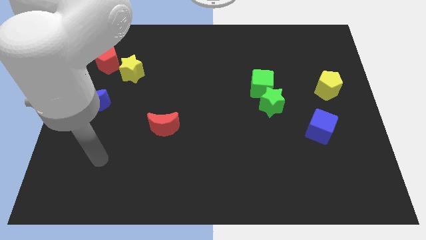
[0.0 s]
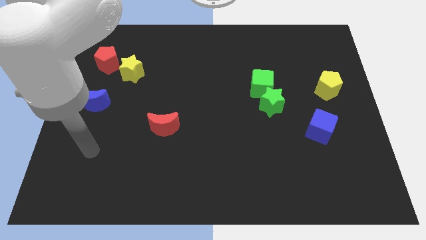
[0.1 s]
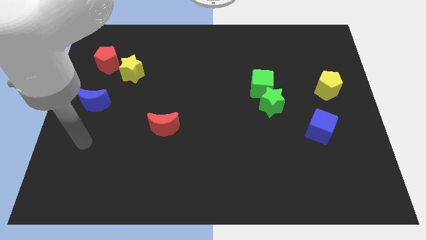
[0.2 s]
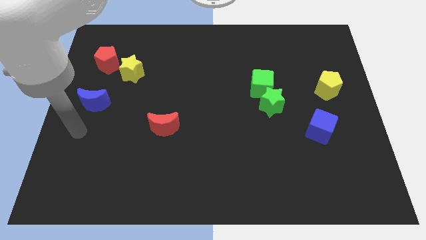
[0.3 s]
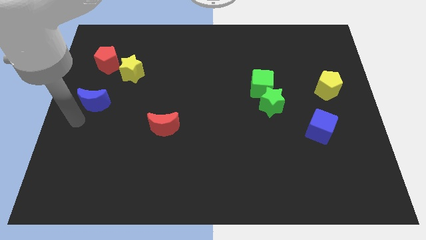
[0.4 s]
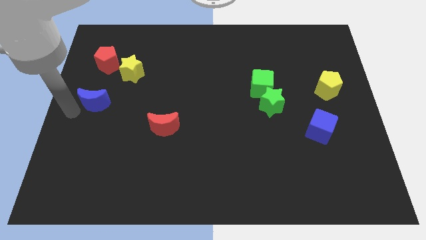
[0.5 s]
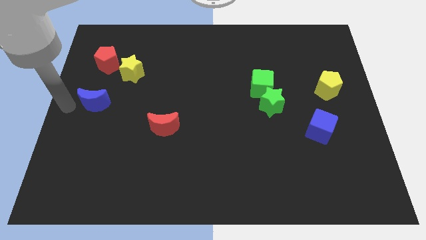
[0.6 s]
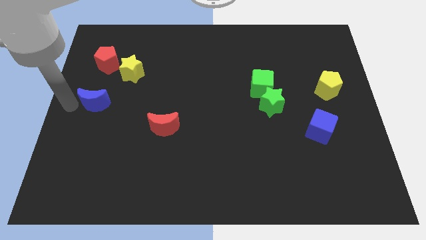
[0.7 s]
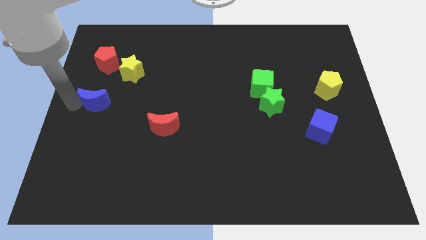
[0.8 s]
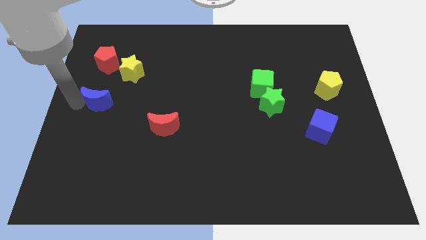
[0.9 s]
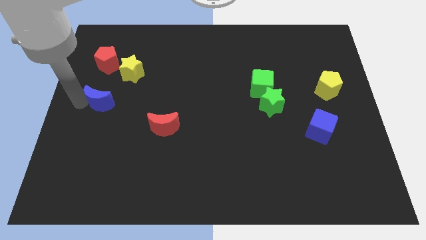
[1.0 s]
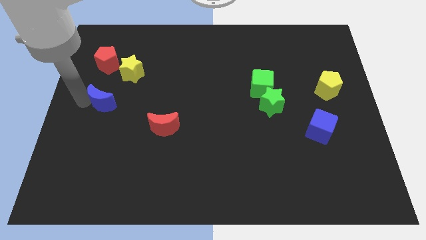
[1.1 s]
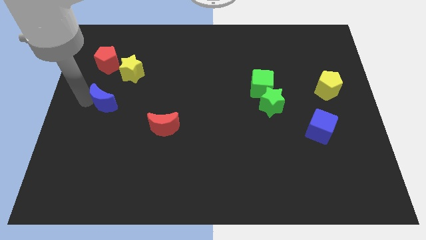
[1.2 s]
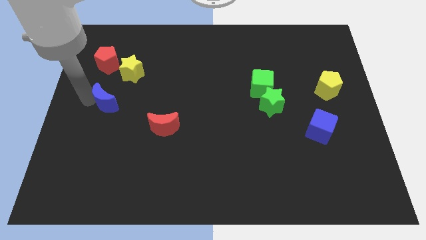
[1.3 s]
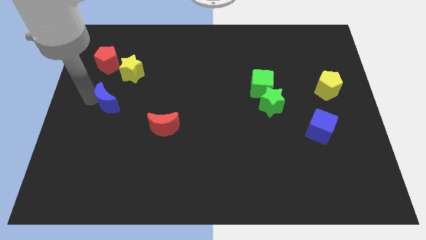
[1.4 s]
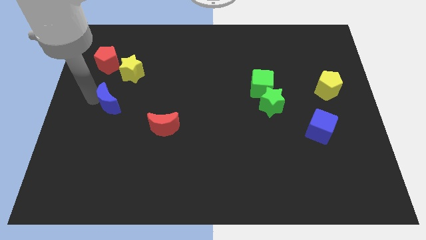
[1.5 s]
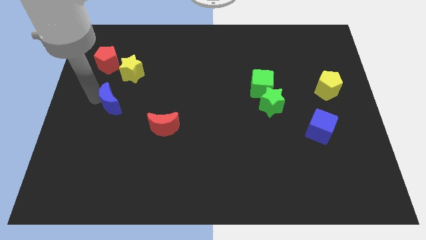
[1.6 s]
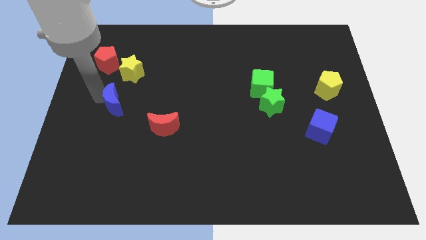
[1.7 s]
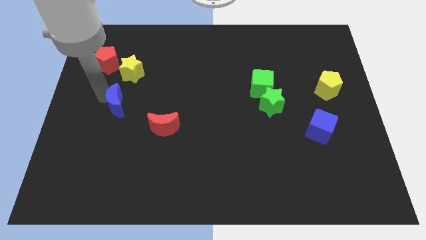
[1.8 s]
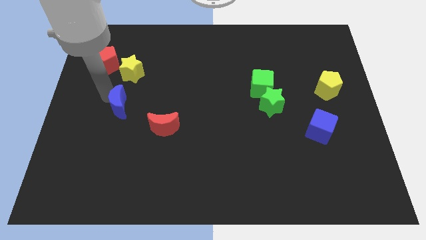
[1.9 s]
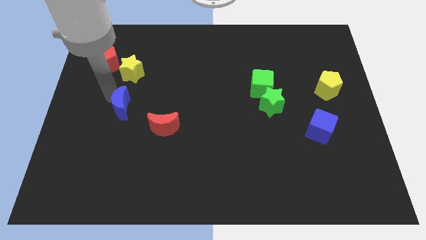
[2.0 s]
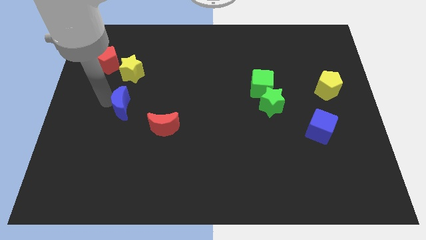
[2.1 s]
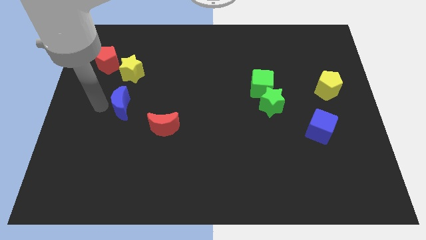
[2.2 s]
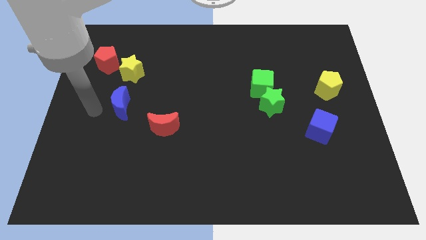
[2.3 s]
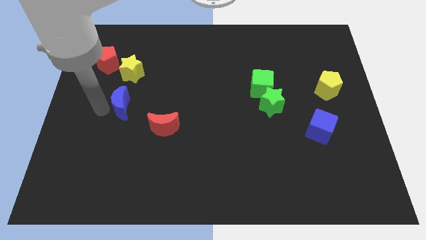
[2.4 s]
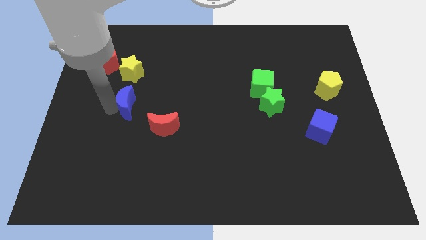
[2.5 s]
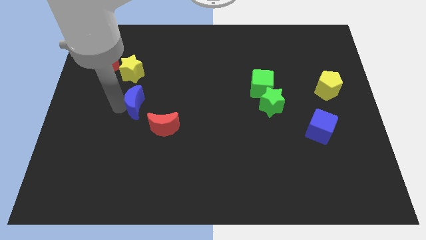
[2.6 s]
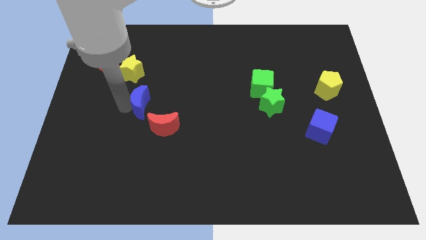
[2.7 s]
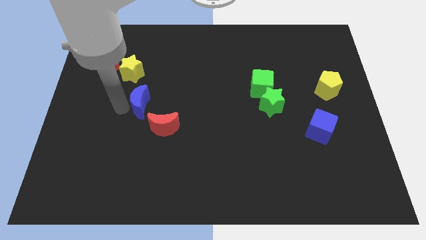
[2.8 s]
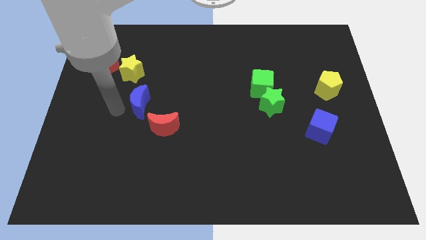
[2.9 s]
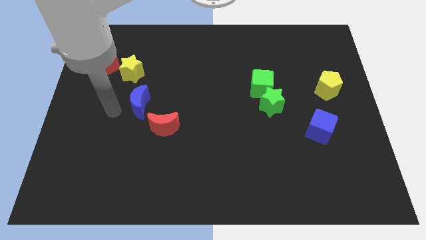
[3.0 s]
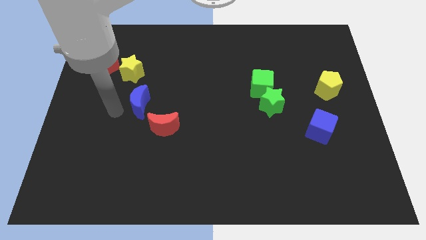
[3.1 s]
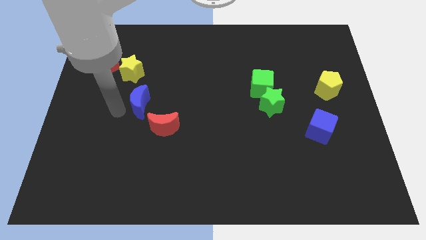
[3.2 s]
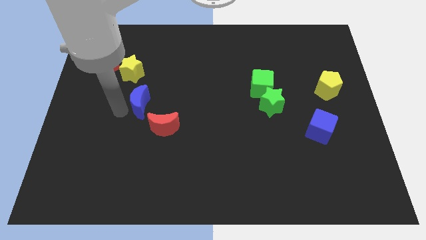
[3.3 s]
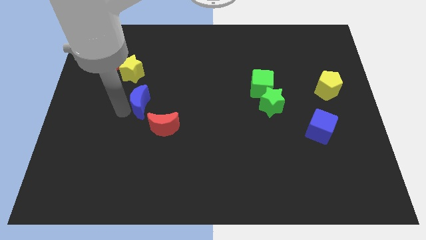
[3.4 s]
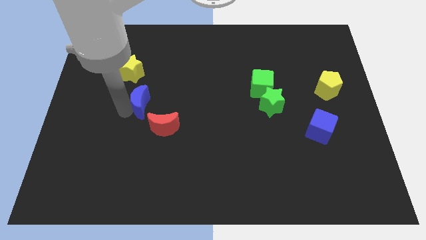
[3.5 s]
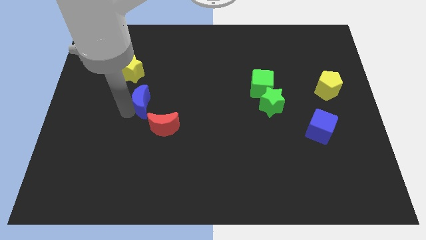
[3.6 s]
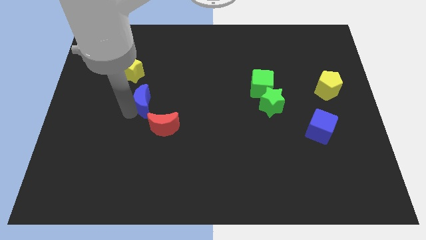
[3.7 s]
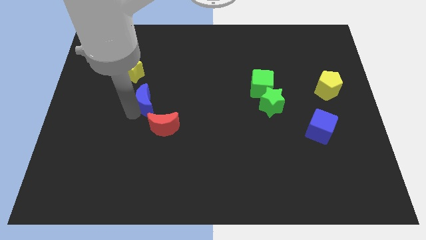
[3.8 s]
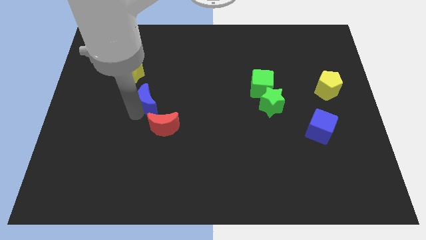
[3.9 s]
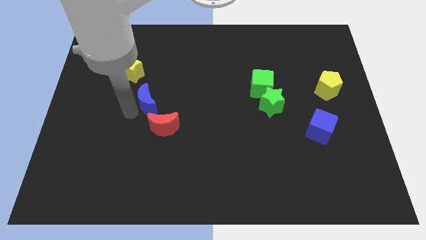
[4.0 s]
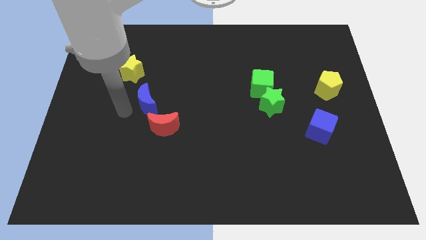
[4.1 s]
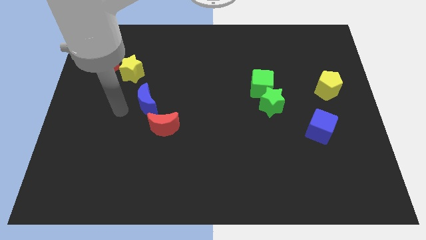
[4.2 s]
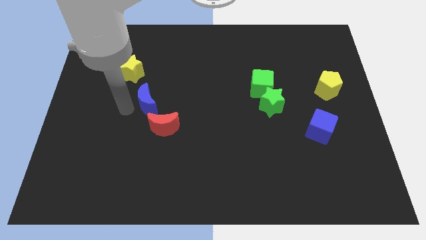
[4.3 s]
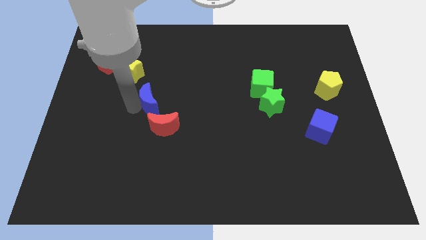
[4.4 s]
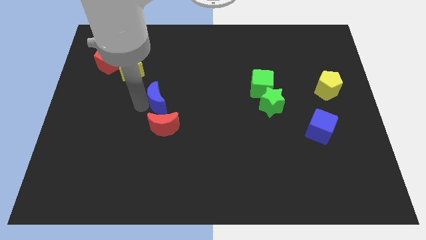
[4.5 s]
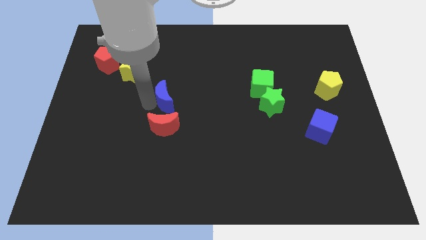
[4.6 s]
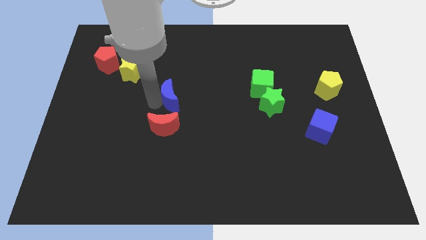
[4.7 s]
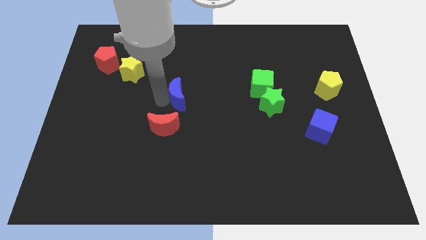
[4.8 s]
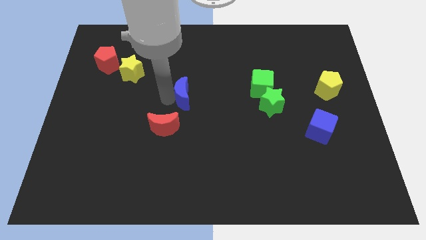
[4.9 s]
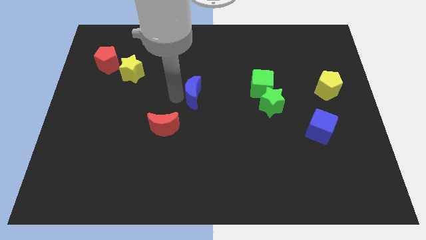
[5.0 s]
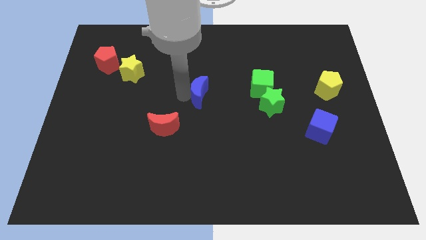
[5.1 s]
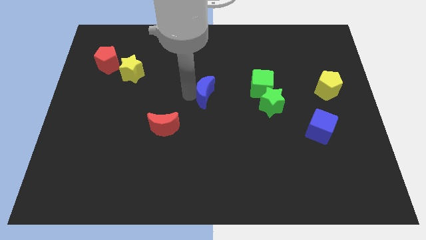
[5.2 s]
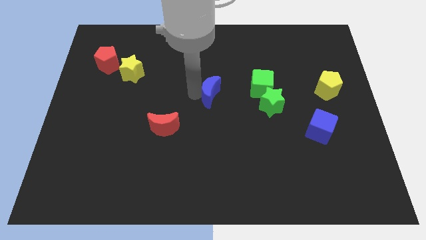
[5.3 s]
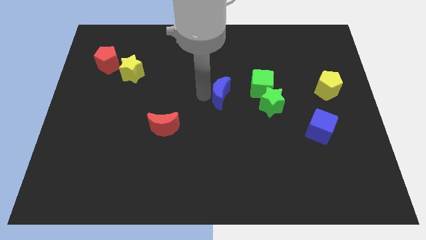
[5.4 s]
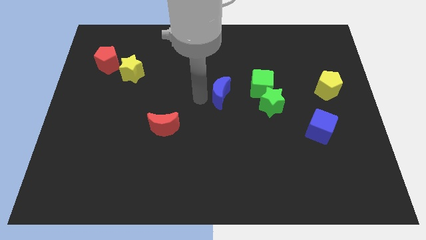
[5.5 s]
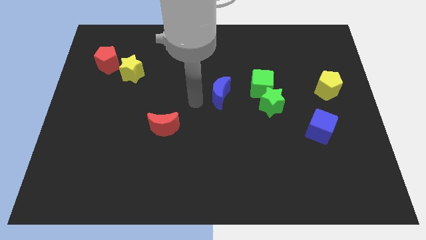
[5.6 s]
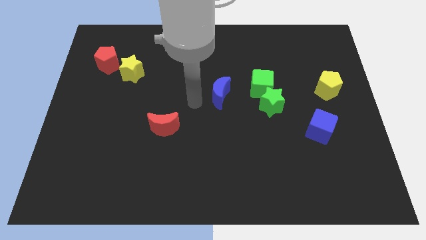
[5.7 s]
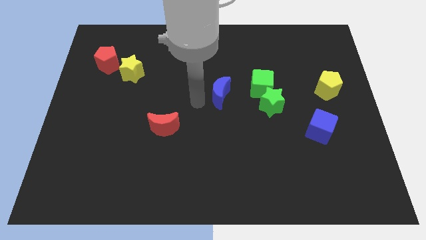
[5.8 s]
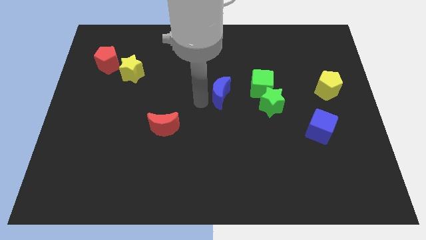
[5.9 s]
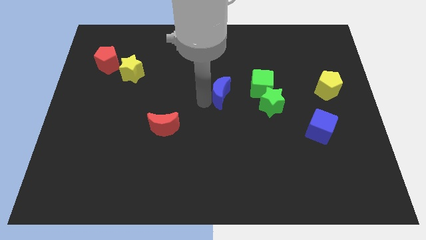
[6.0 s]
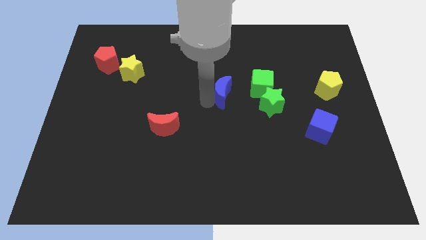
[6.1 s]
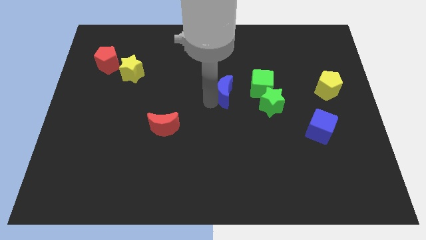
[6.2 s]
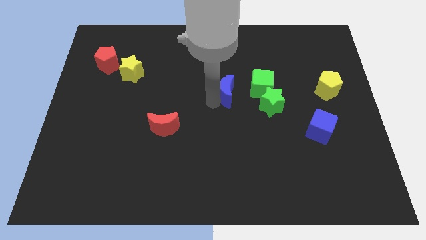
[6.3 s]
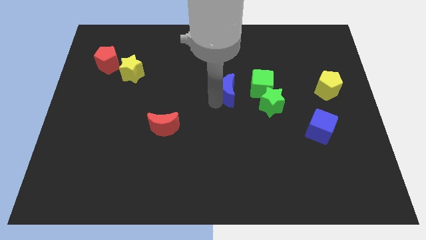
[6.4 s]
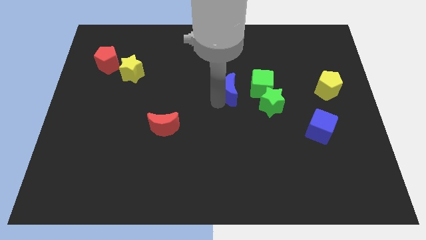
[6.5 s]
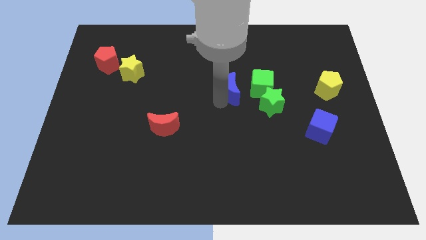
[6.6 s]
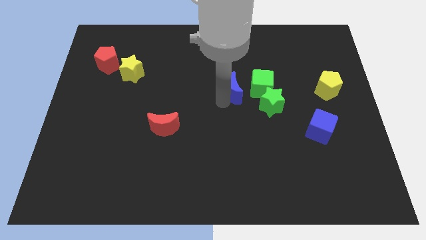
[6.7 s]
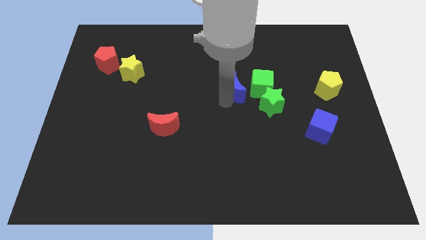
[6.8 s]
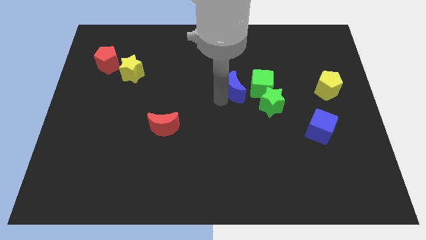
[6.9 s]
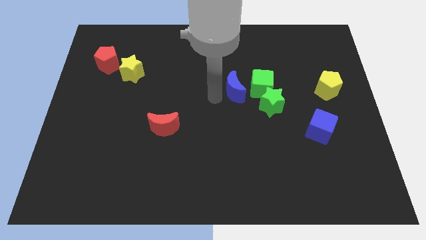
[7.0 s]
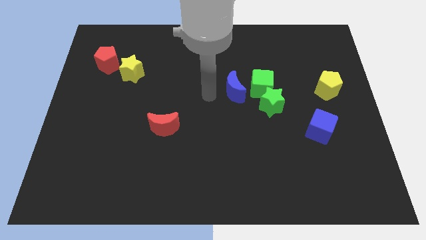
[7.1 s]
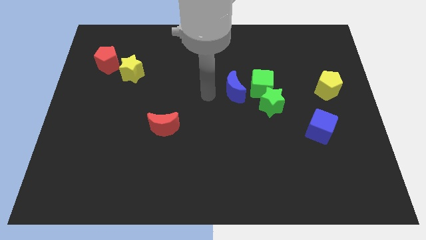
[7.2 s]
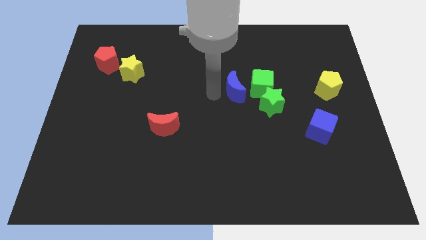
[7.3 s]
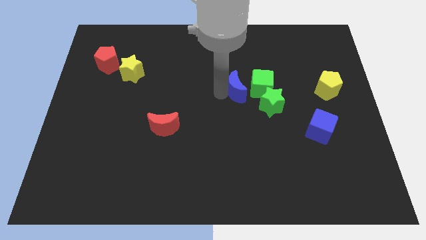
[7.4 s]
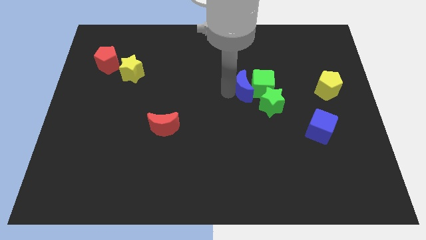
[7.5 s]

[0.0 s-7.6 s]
move the blue moon towards the green cube
